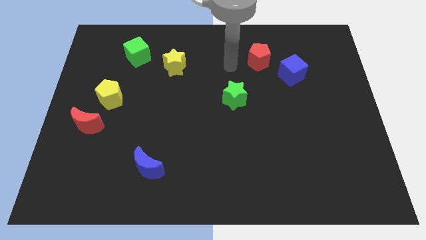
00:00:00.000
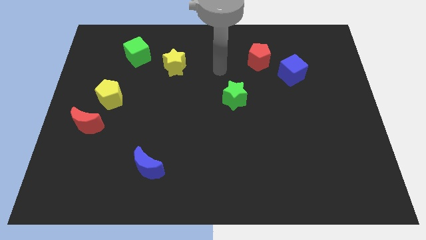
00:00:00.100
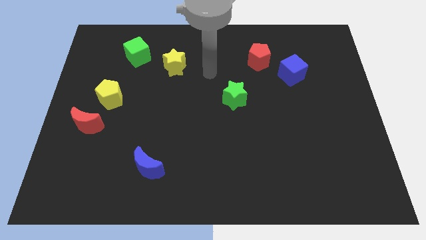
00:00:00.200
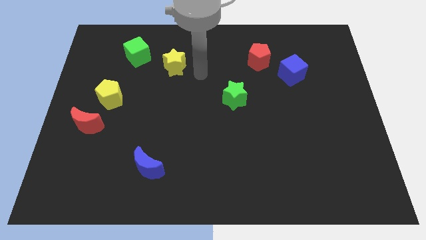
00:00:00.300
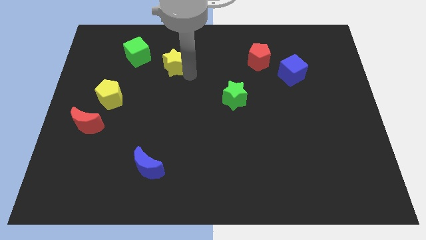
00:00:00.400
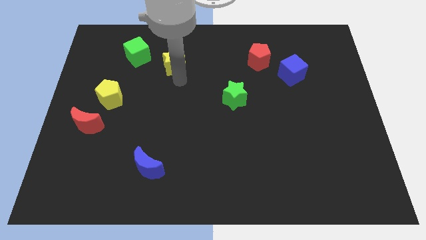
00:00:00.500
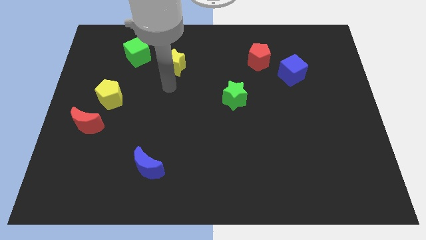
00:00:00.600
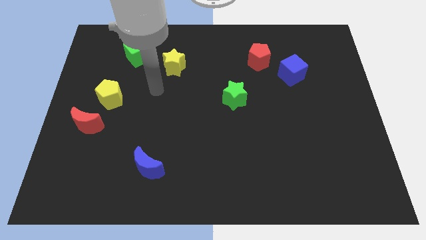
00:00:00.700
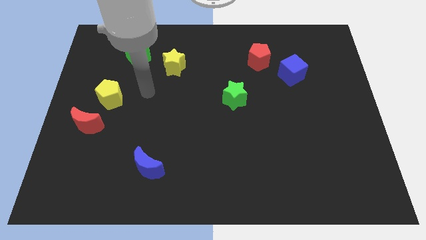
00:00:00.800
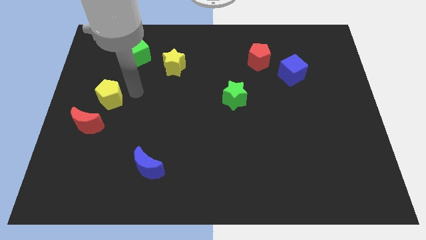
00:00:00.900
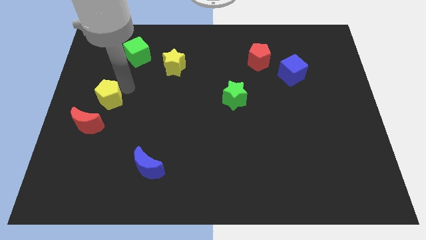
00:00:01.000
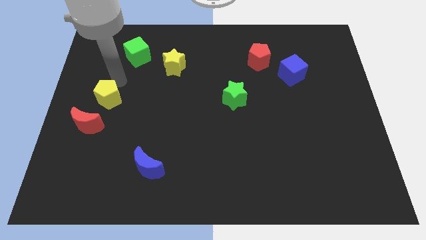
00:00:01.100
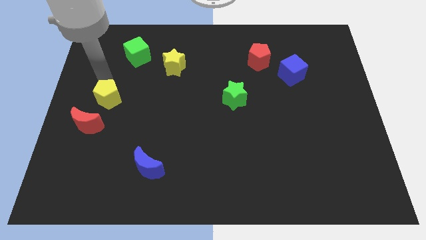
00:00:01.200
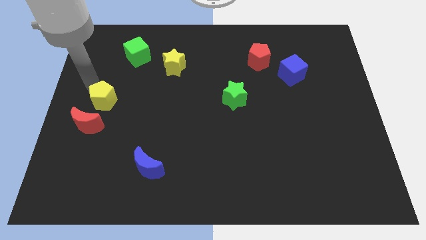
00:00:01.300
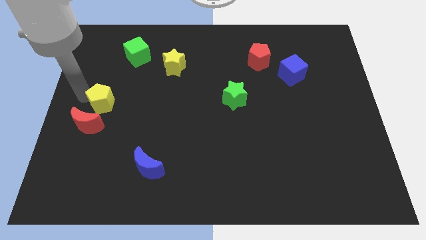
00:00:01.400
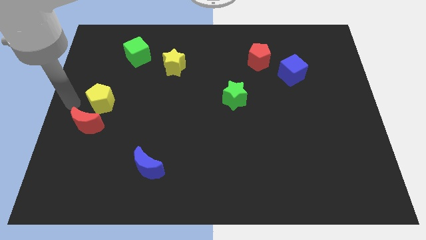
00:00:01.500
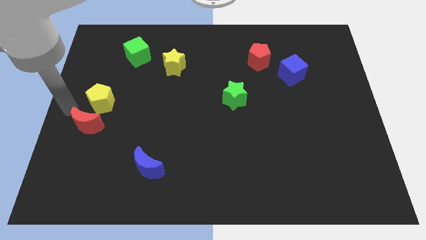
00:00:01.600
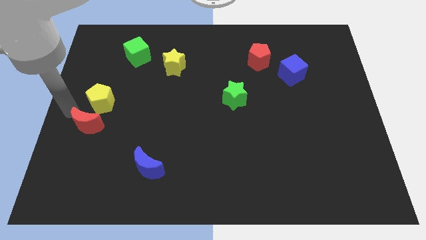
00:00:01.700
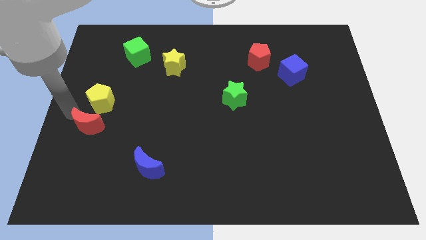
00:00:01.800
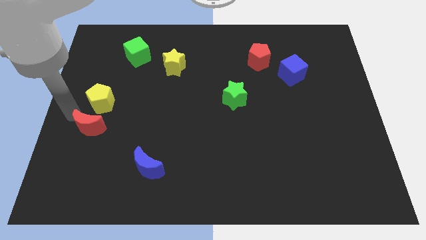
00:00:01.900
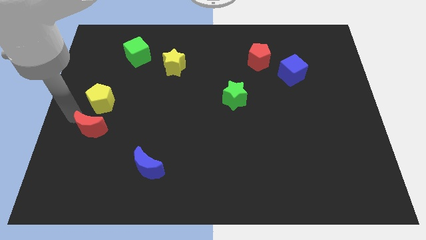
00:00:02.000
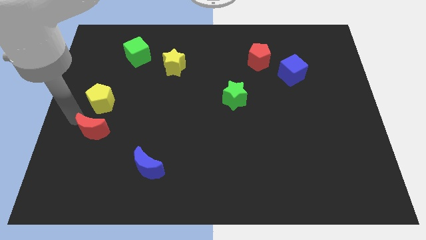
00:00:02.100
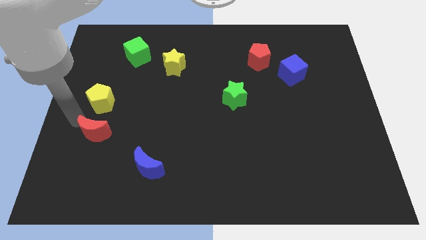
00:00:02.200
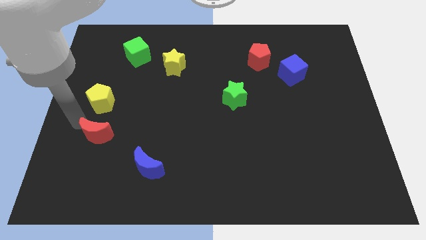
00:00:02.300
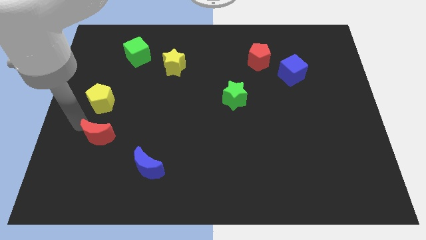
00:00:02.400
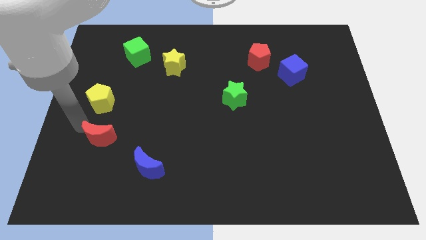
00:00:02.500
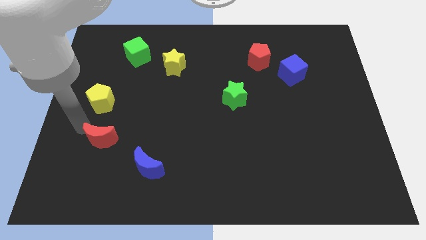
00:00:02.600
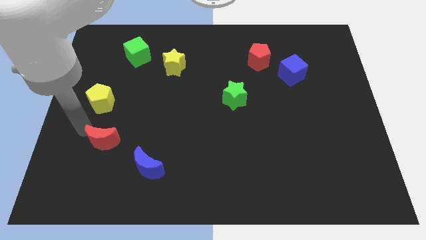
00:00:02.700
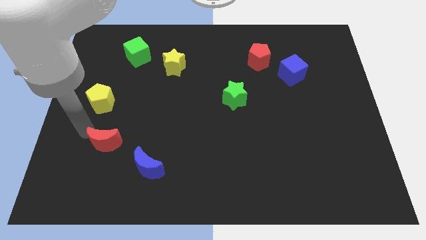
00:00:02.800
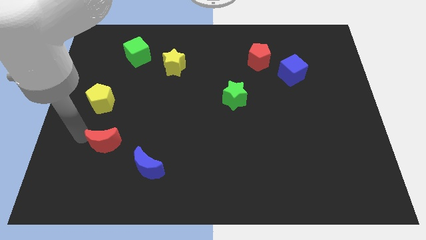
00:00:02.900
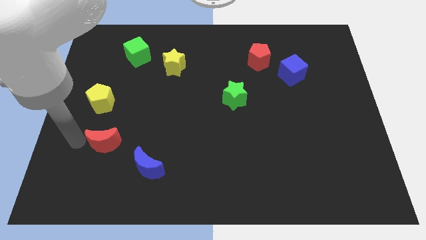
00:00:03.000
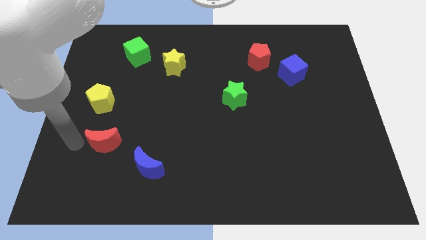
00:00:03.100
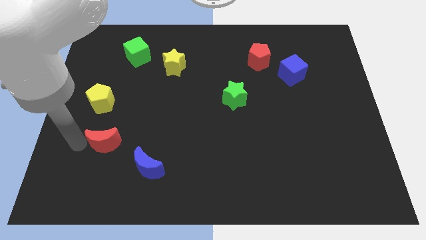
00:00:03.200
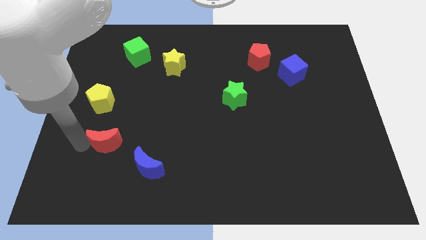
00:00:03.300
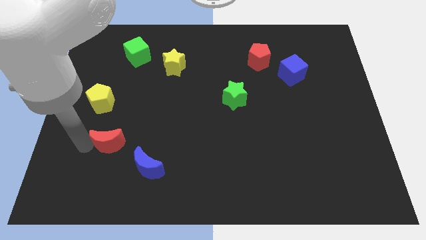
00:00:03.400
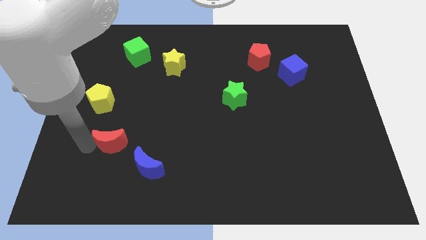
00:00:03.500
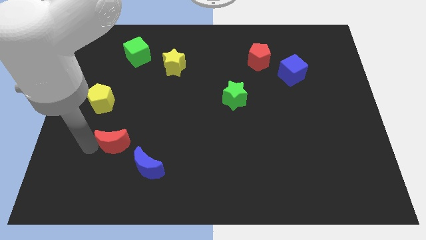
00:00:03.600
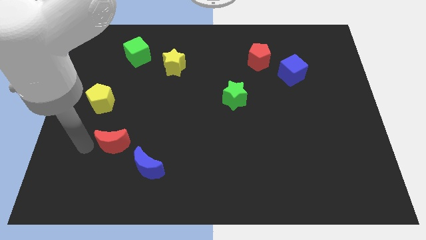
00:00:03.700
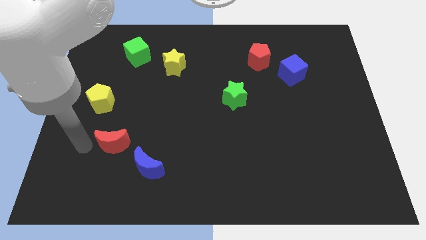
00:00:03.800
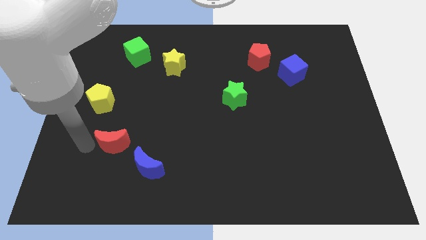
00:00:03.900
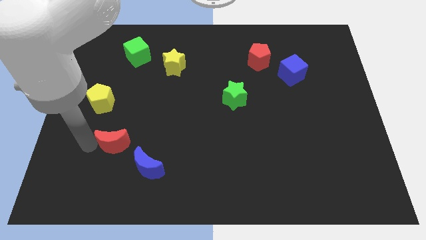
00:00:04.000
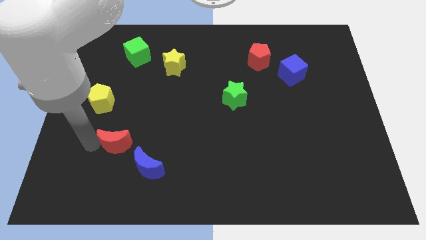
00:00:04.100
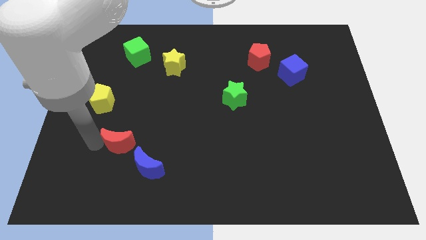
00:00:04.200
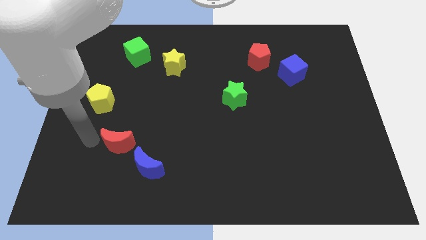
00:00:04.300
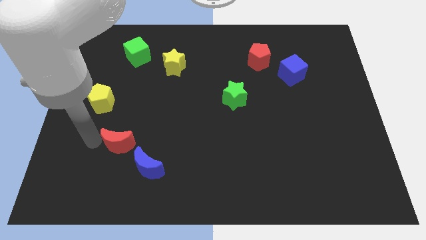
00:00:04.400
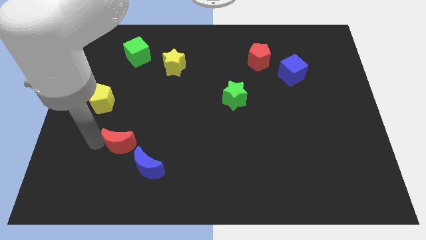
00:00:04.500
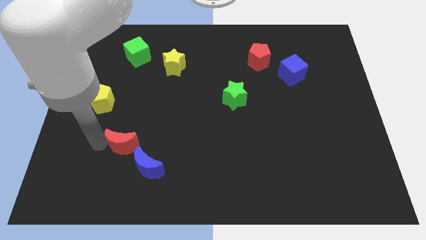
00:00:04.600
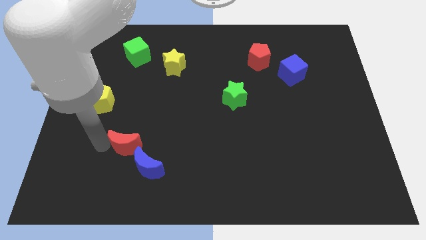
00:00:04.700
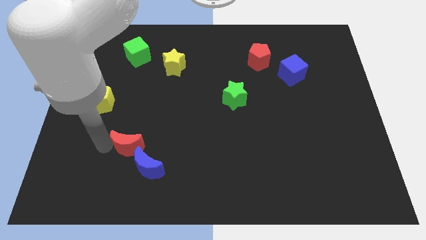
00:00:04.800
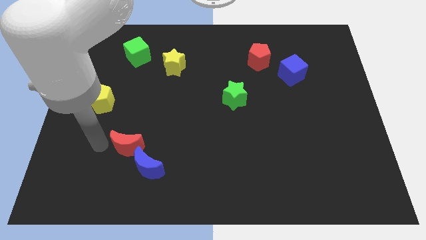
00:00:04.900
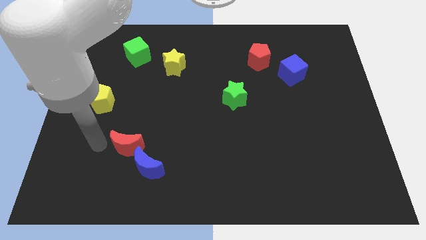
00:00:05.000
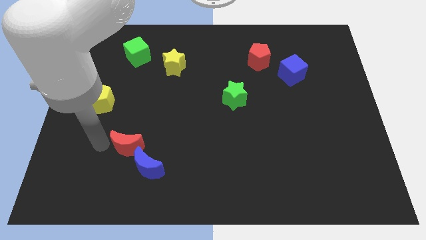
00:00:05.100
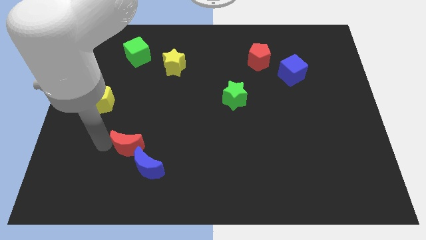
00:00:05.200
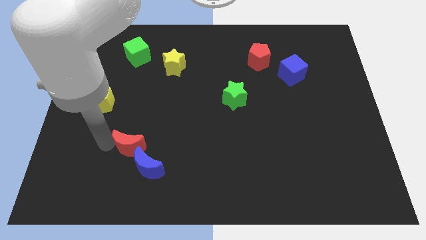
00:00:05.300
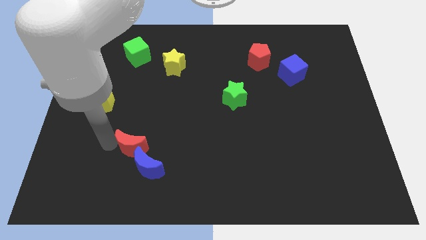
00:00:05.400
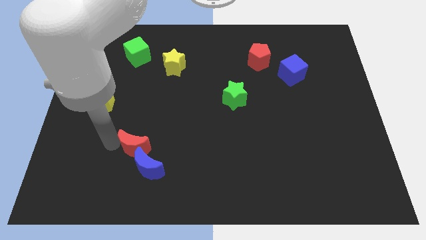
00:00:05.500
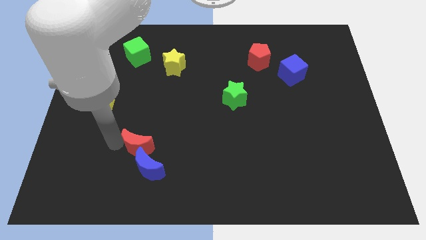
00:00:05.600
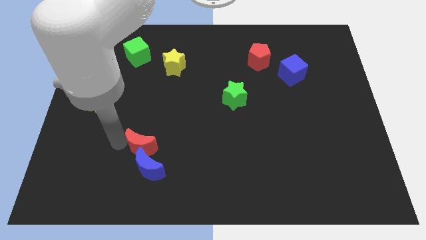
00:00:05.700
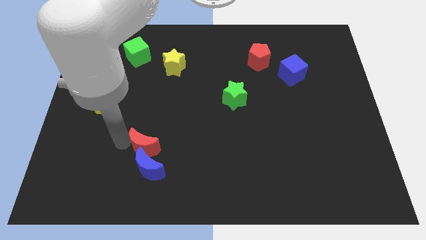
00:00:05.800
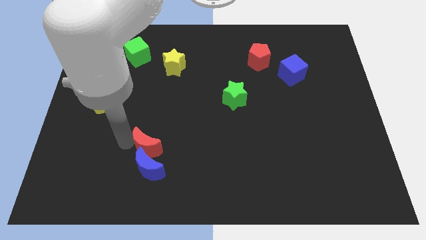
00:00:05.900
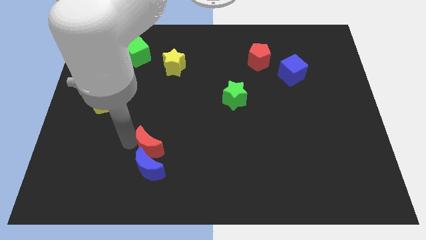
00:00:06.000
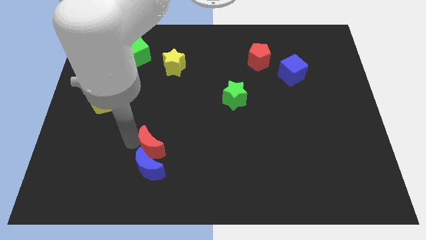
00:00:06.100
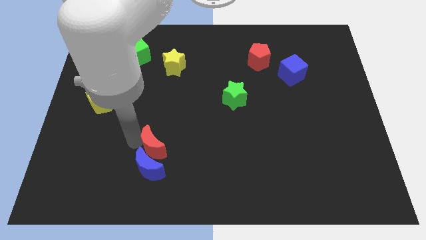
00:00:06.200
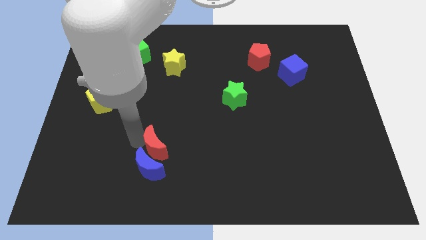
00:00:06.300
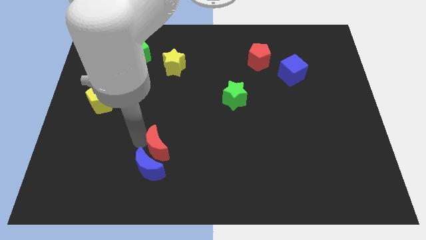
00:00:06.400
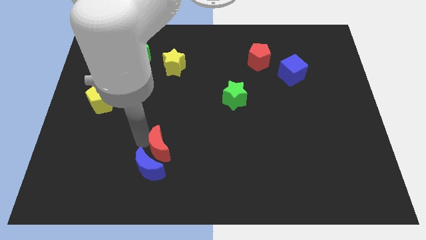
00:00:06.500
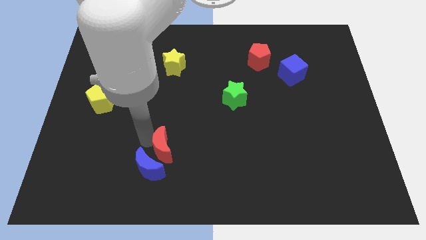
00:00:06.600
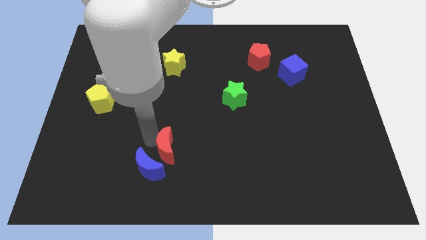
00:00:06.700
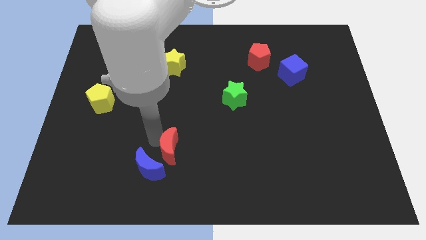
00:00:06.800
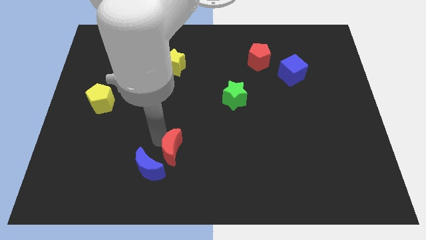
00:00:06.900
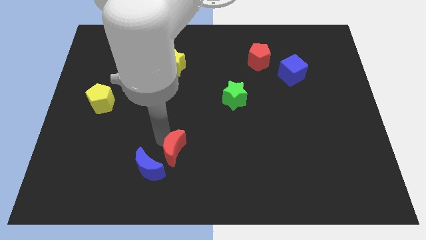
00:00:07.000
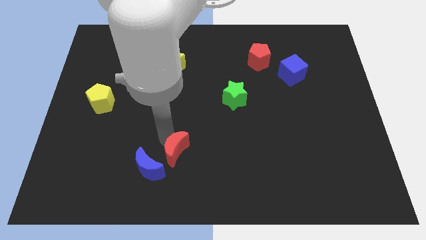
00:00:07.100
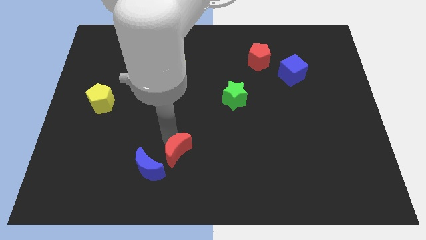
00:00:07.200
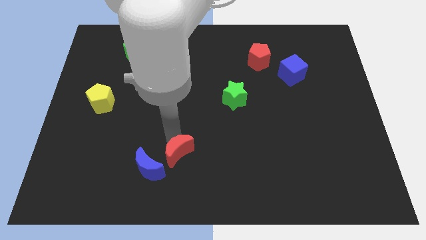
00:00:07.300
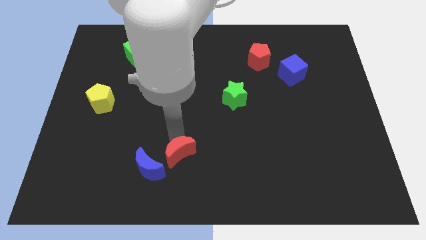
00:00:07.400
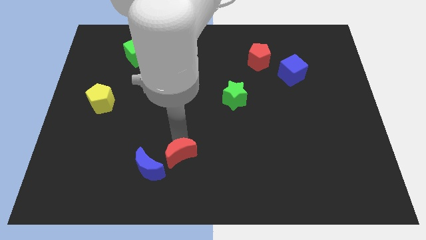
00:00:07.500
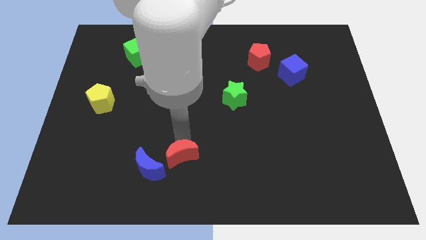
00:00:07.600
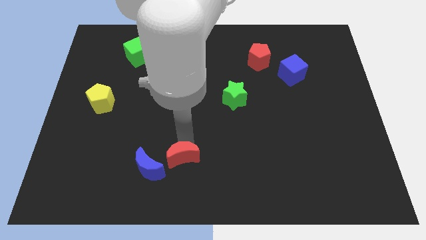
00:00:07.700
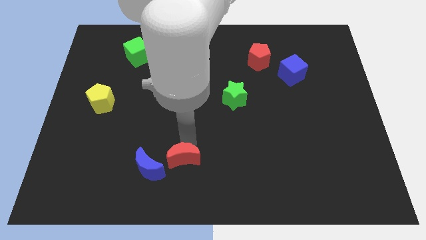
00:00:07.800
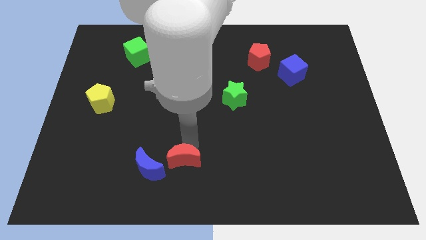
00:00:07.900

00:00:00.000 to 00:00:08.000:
put the red moon to the bottom side

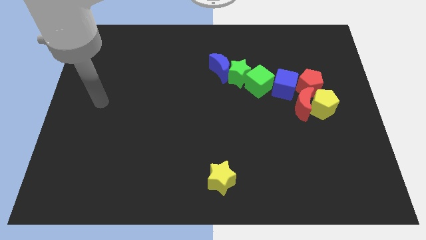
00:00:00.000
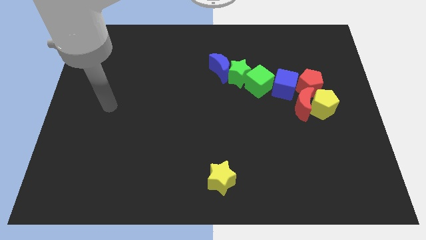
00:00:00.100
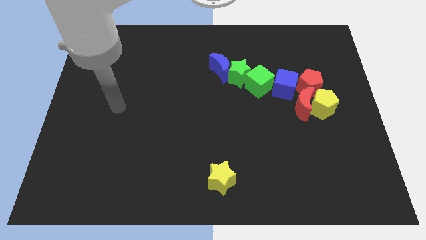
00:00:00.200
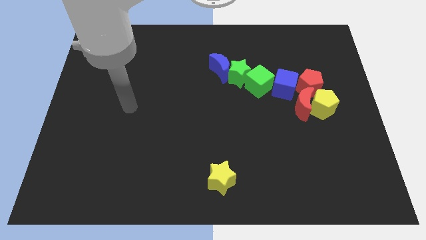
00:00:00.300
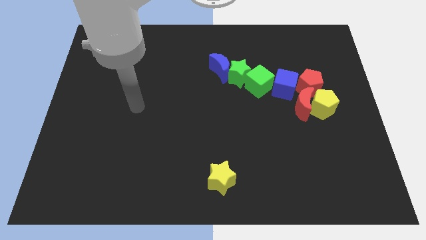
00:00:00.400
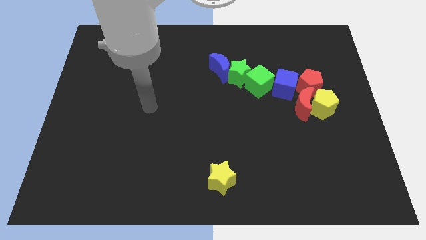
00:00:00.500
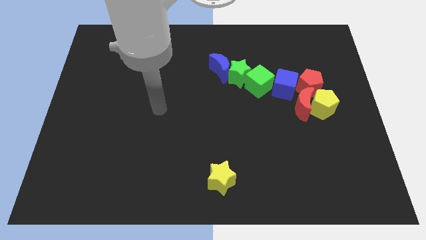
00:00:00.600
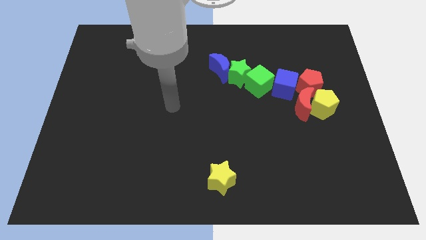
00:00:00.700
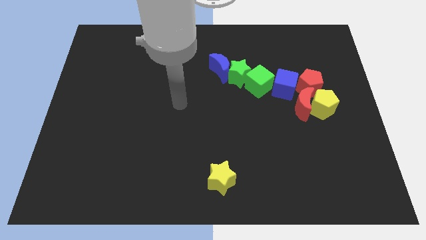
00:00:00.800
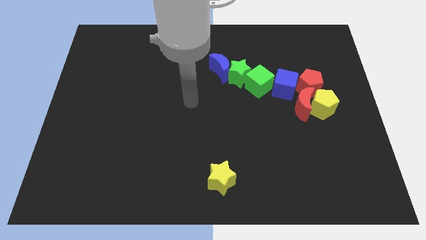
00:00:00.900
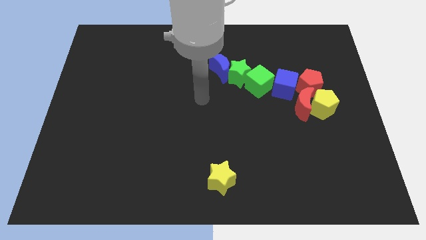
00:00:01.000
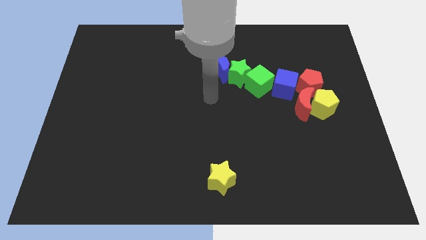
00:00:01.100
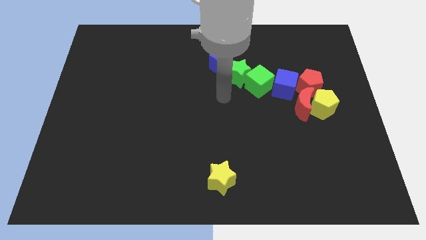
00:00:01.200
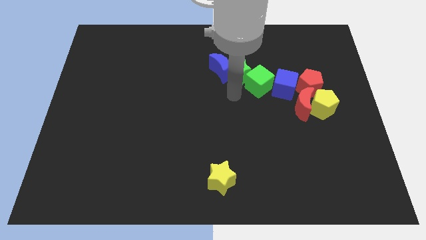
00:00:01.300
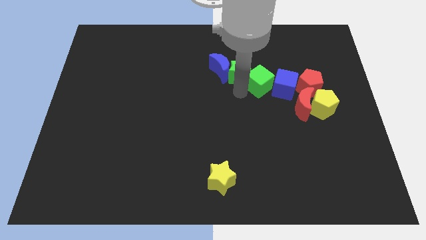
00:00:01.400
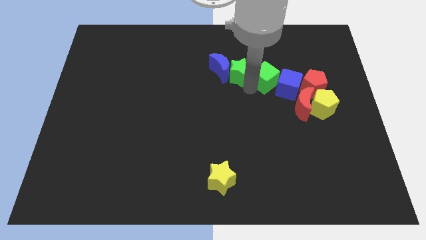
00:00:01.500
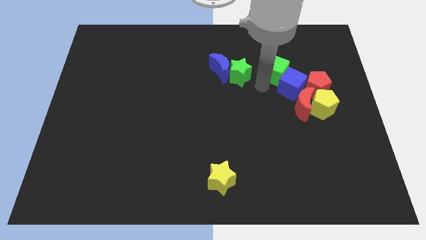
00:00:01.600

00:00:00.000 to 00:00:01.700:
slide the red pentagon to the right side of the board
